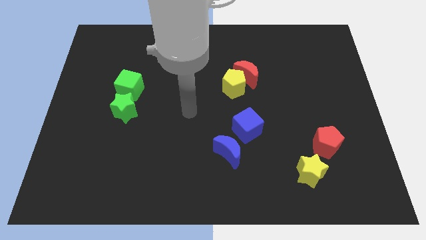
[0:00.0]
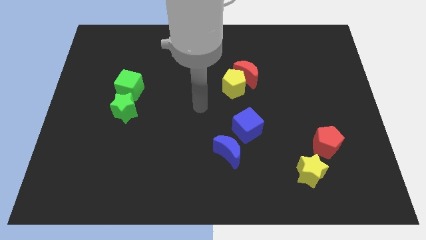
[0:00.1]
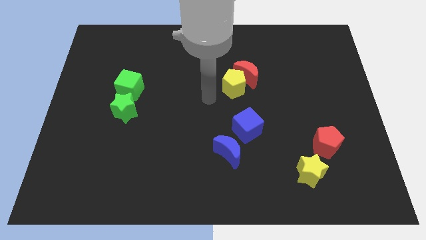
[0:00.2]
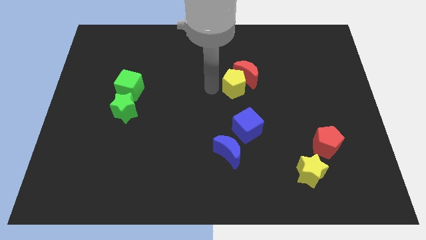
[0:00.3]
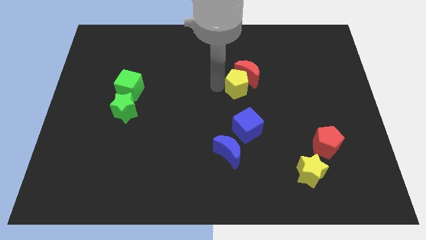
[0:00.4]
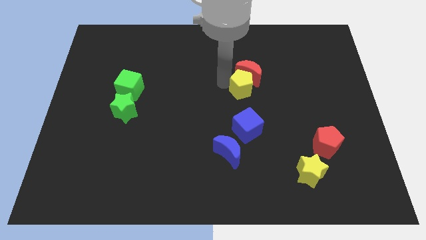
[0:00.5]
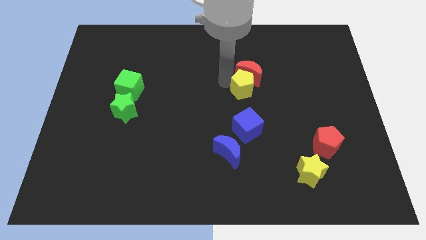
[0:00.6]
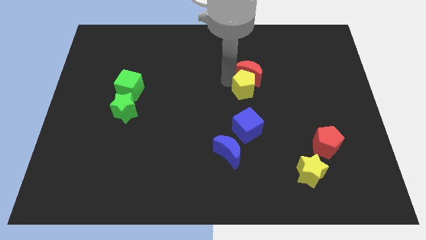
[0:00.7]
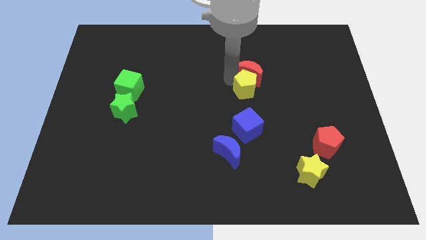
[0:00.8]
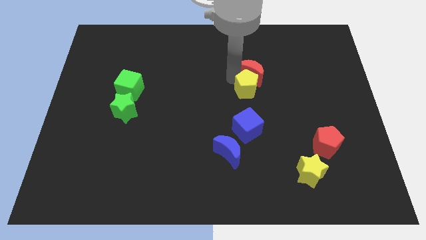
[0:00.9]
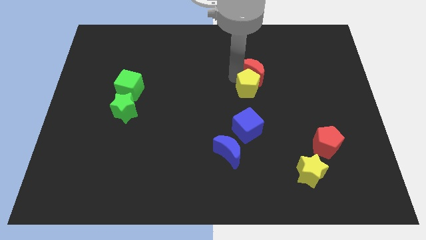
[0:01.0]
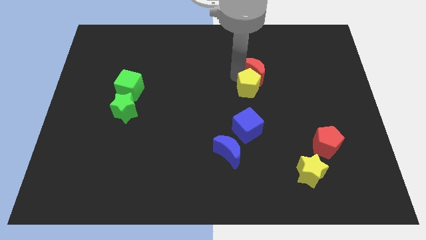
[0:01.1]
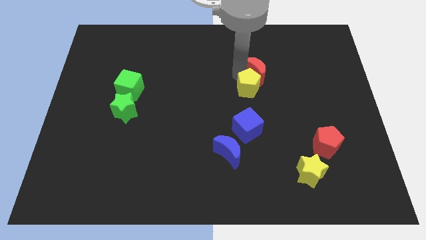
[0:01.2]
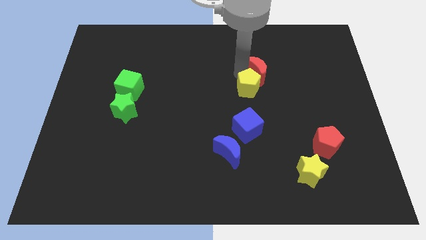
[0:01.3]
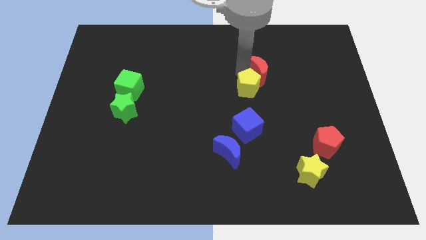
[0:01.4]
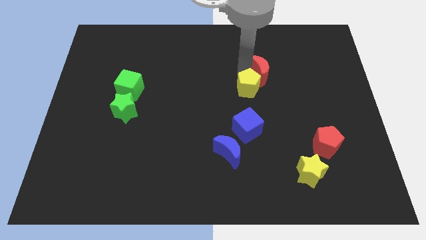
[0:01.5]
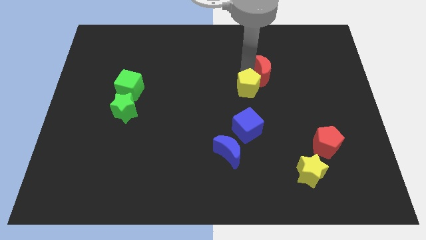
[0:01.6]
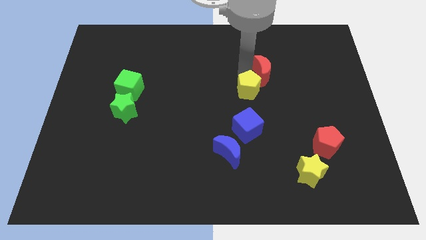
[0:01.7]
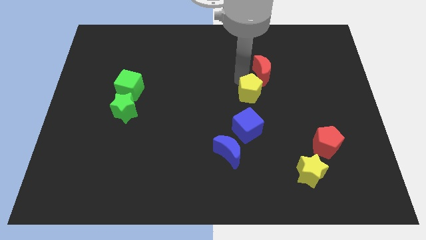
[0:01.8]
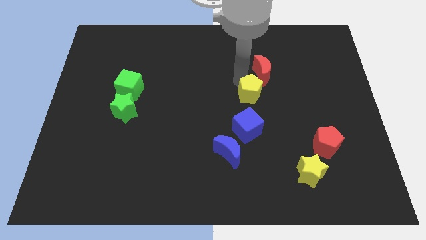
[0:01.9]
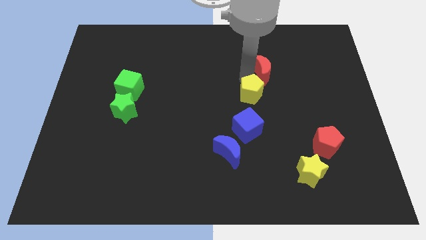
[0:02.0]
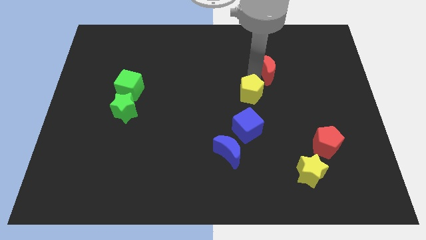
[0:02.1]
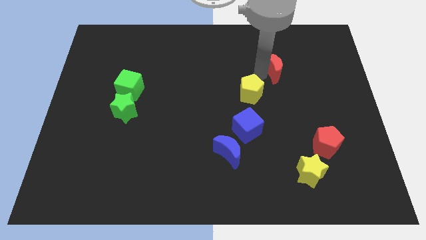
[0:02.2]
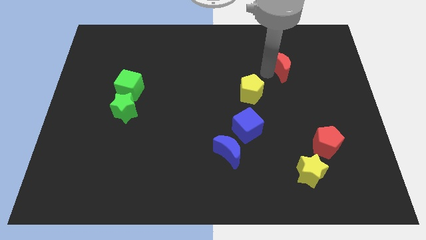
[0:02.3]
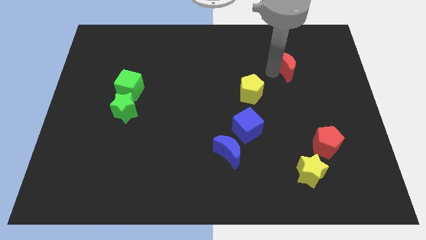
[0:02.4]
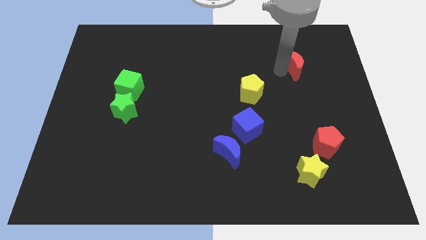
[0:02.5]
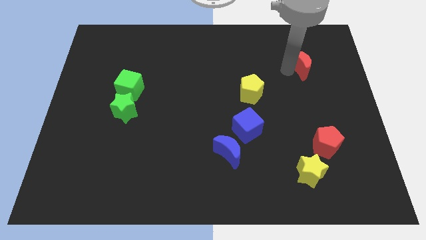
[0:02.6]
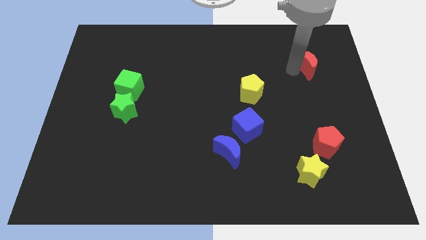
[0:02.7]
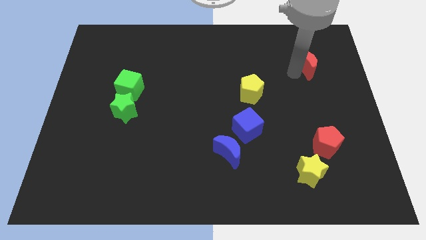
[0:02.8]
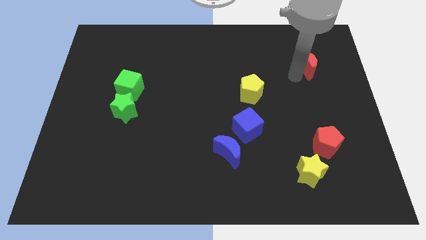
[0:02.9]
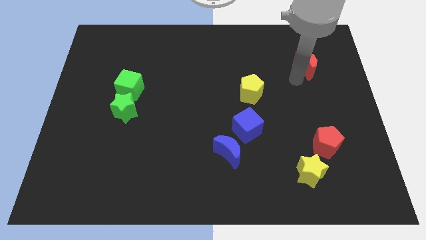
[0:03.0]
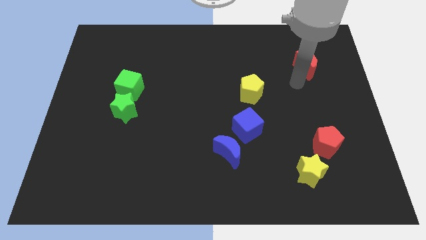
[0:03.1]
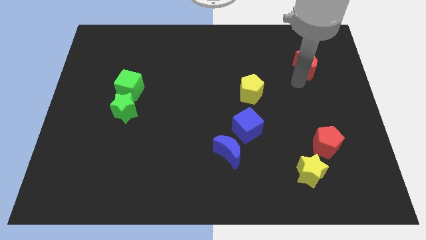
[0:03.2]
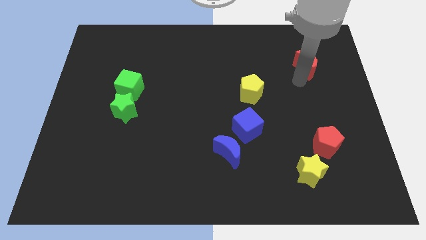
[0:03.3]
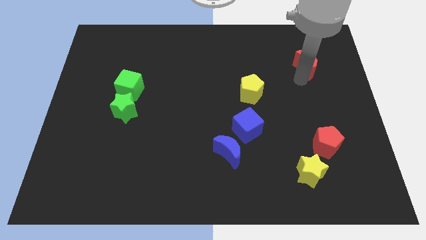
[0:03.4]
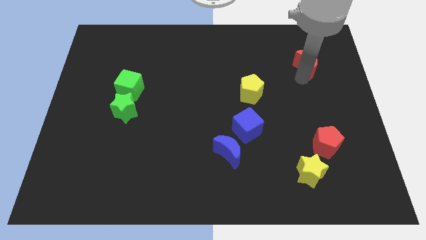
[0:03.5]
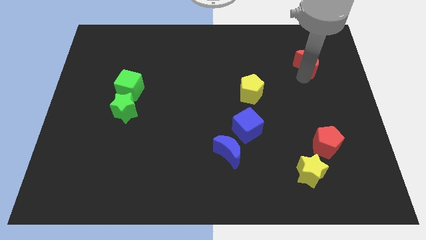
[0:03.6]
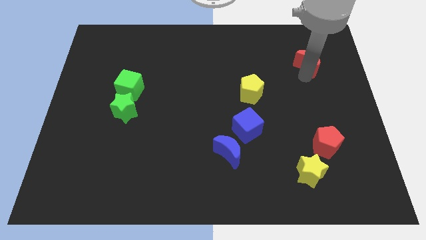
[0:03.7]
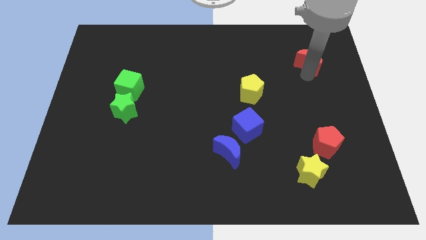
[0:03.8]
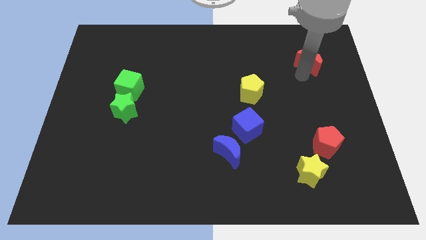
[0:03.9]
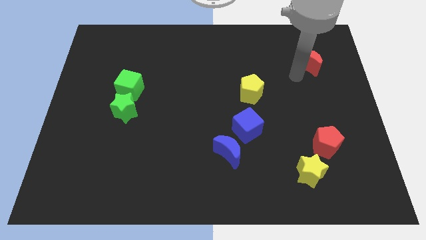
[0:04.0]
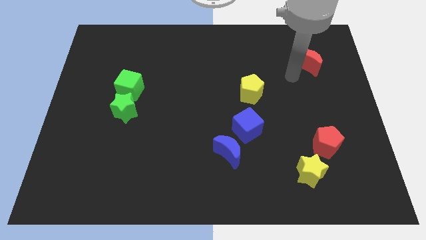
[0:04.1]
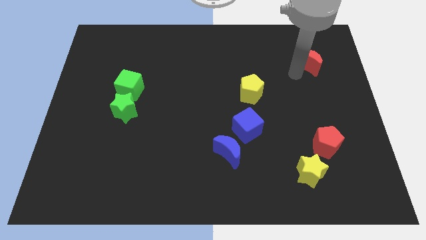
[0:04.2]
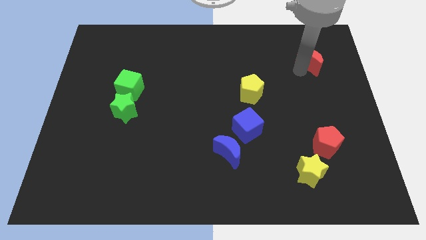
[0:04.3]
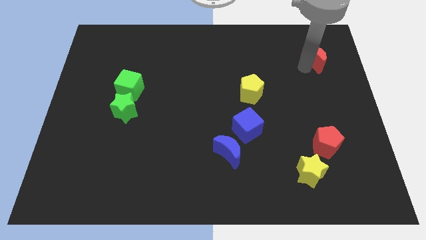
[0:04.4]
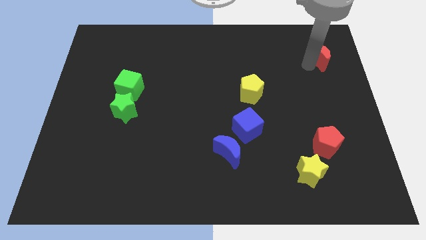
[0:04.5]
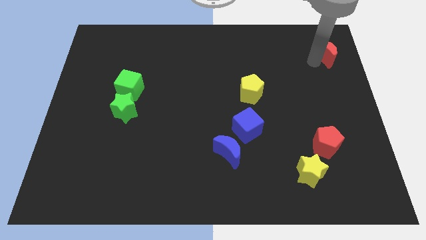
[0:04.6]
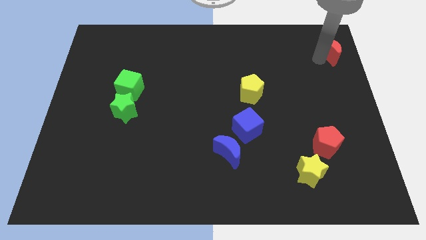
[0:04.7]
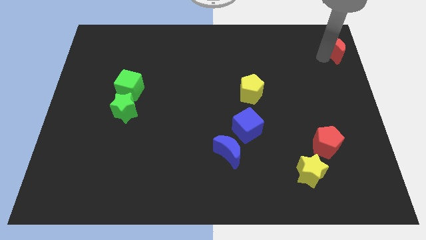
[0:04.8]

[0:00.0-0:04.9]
move the red moon to the top right
